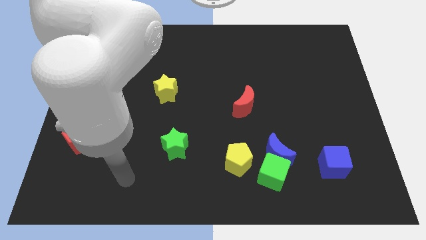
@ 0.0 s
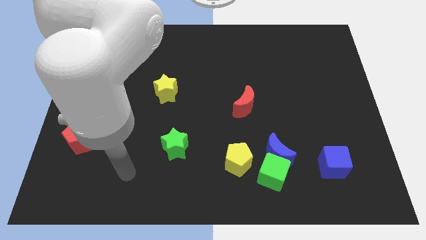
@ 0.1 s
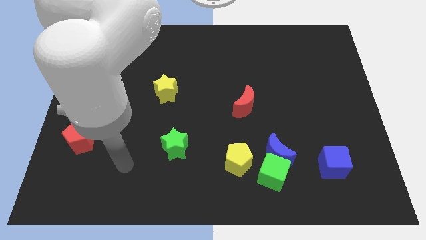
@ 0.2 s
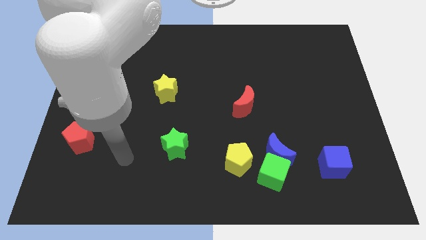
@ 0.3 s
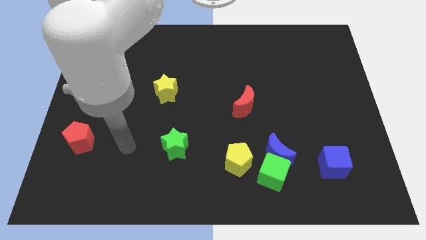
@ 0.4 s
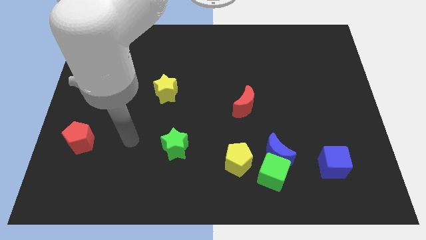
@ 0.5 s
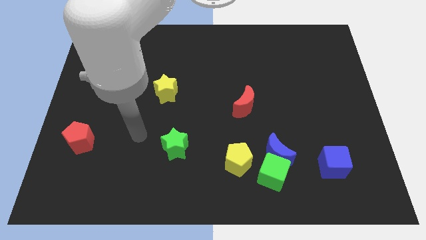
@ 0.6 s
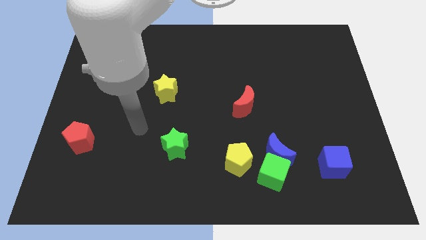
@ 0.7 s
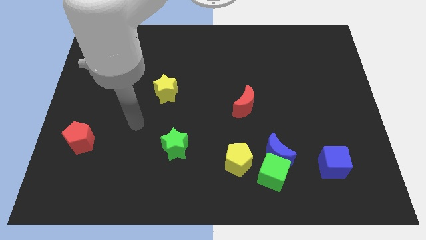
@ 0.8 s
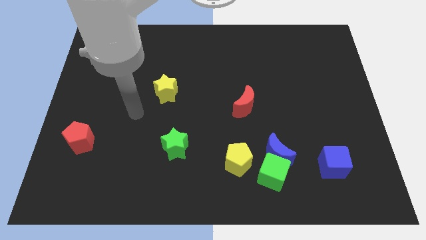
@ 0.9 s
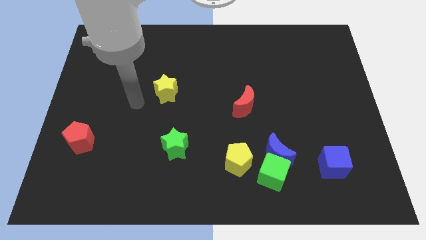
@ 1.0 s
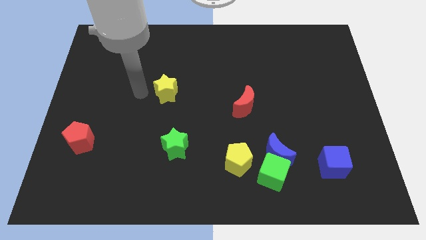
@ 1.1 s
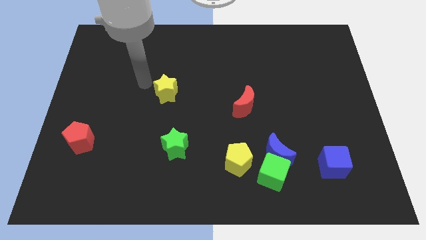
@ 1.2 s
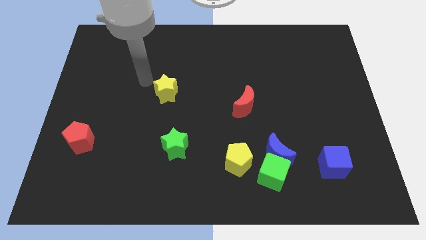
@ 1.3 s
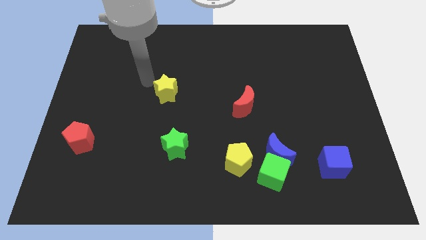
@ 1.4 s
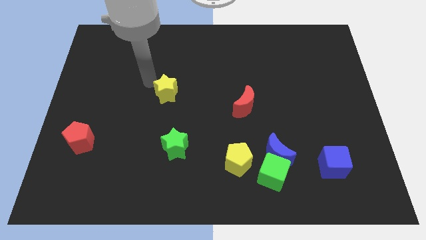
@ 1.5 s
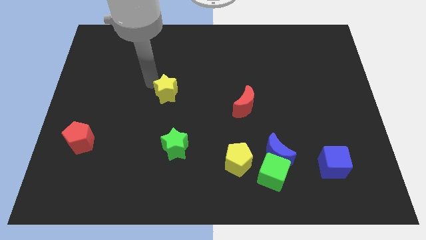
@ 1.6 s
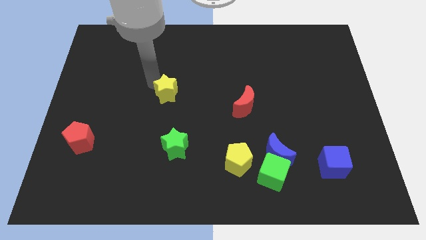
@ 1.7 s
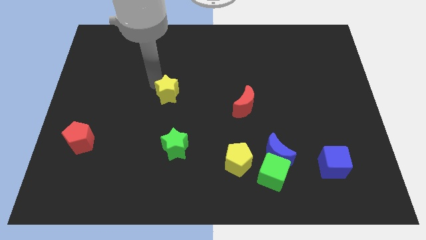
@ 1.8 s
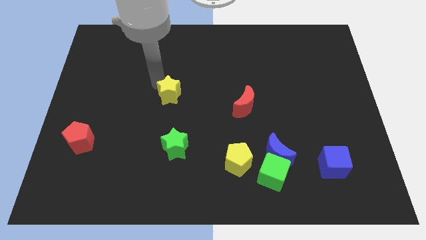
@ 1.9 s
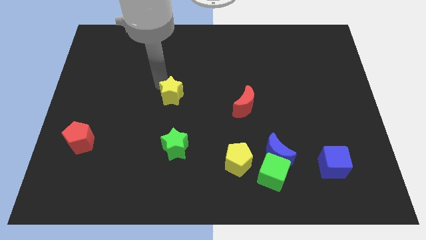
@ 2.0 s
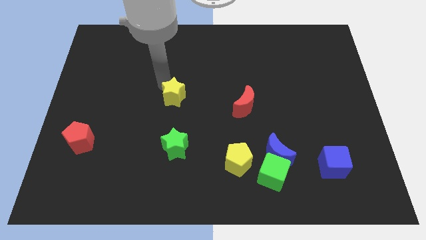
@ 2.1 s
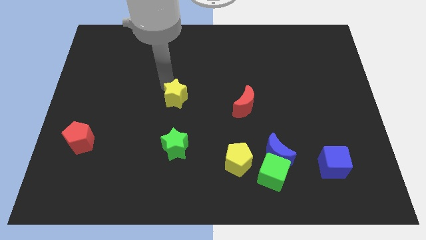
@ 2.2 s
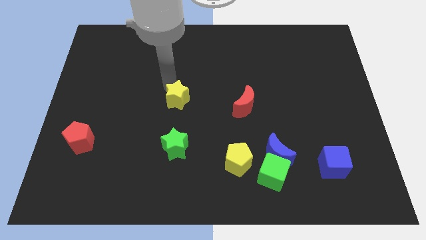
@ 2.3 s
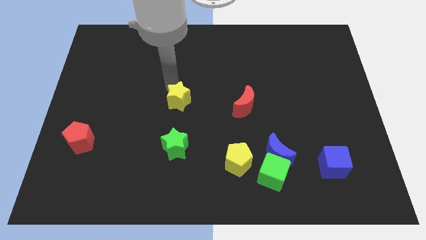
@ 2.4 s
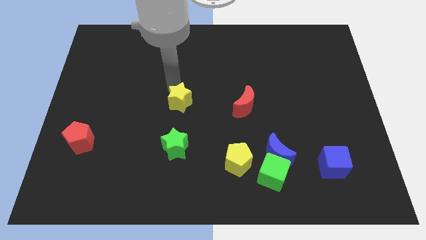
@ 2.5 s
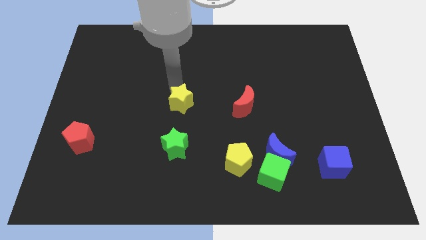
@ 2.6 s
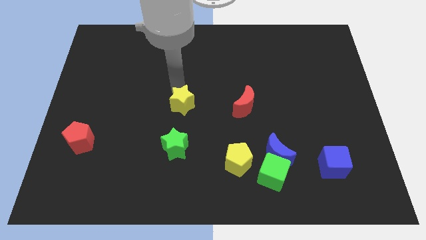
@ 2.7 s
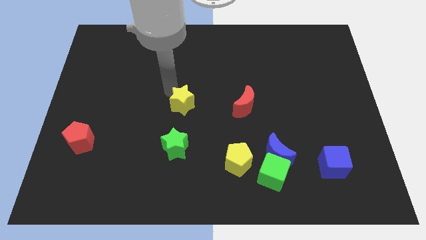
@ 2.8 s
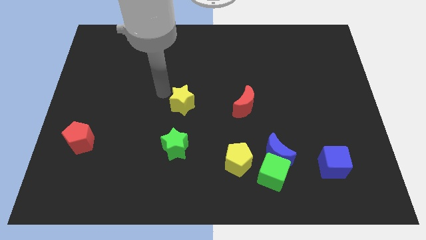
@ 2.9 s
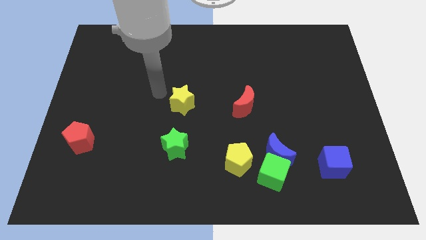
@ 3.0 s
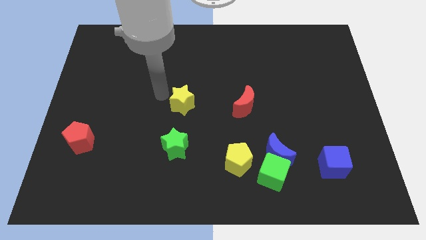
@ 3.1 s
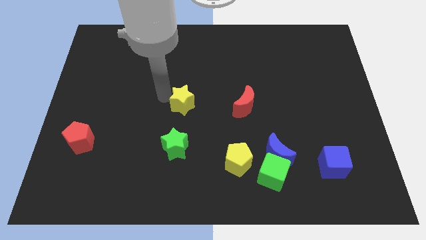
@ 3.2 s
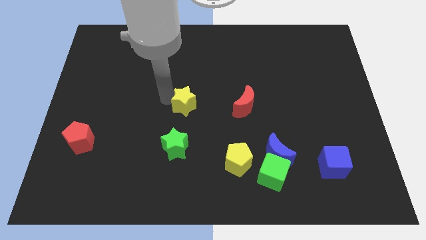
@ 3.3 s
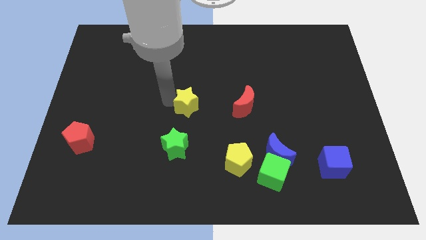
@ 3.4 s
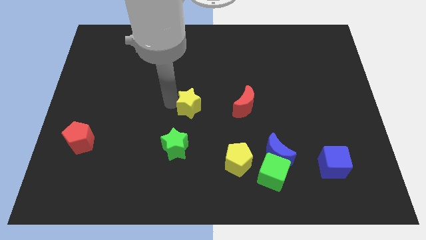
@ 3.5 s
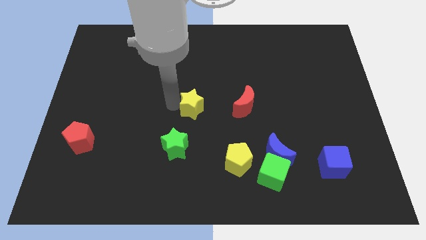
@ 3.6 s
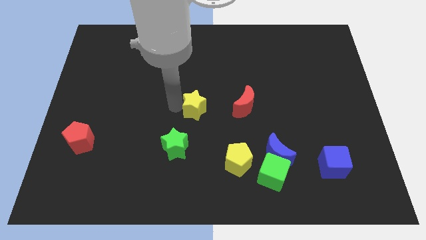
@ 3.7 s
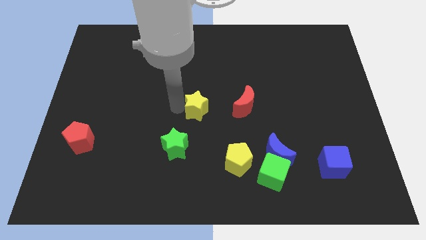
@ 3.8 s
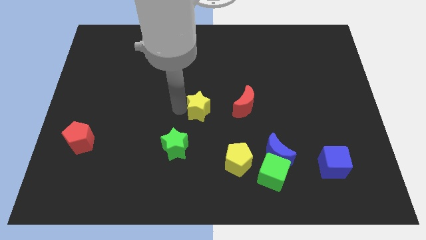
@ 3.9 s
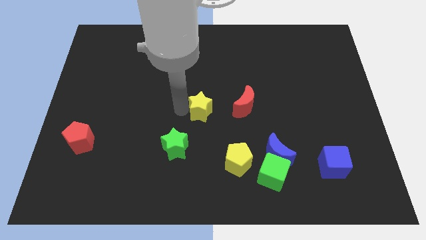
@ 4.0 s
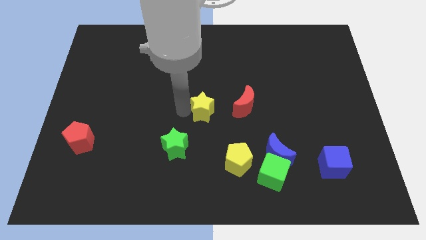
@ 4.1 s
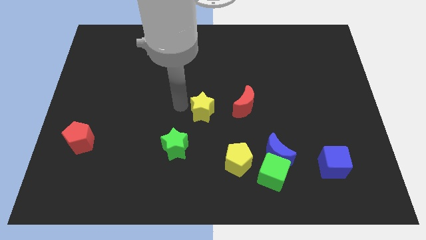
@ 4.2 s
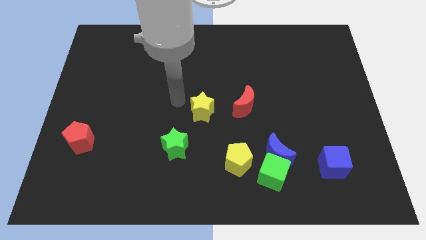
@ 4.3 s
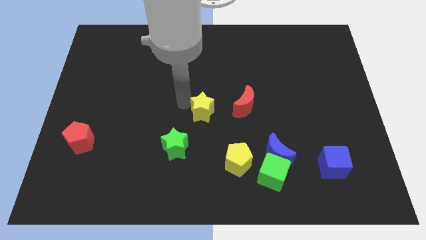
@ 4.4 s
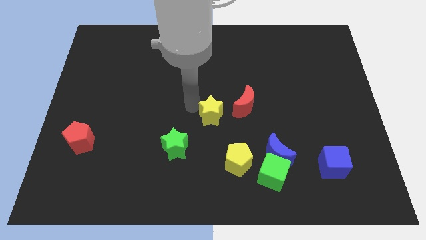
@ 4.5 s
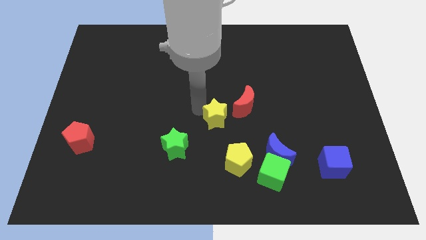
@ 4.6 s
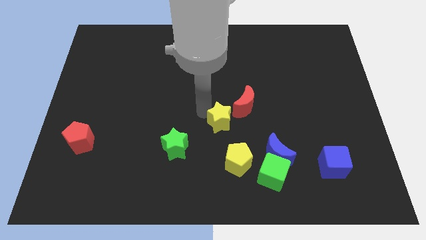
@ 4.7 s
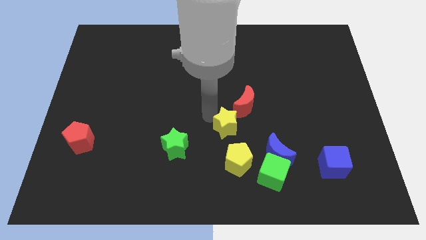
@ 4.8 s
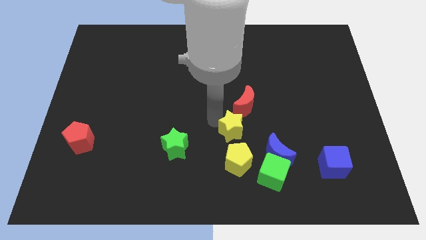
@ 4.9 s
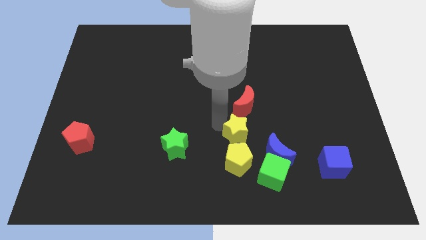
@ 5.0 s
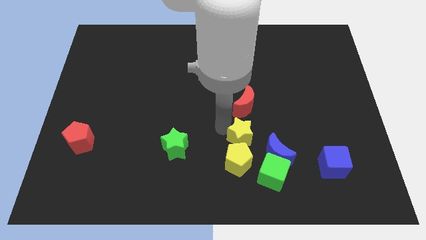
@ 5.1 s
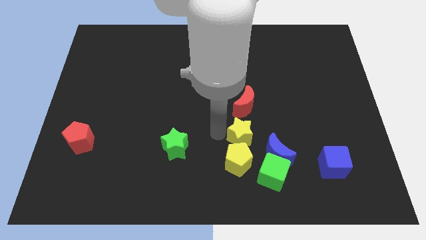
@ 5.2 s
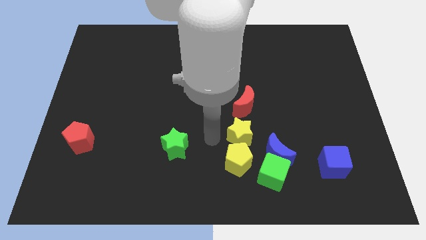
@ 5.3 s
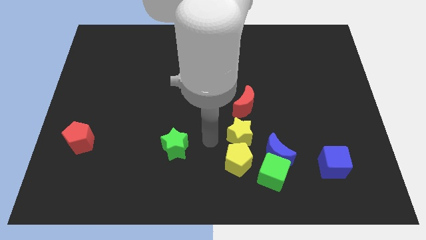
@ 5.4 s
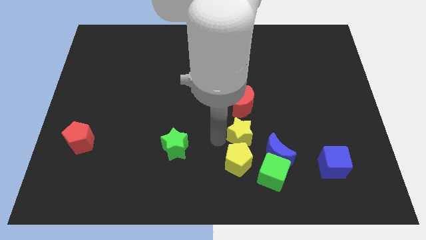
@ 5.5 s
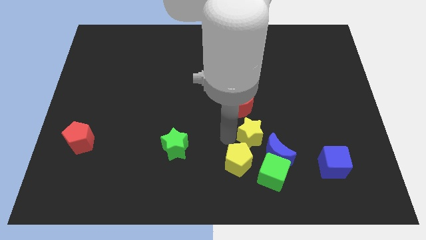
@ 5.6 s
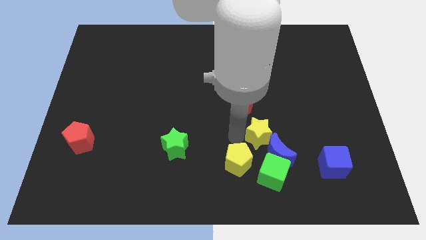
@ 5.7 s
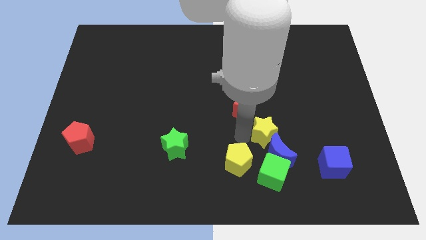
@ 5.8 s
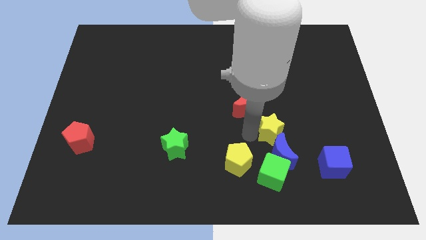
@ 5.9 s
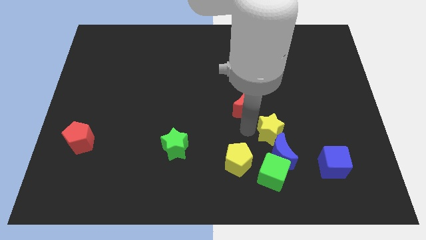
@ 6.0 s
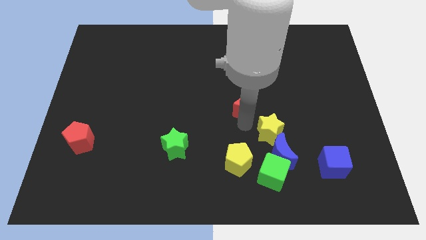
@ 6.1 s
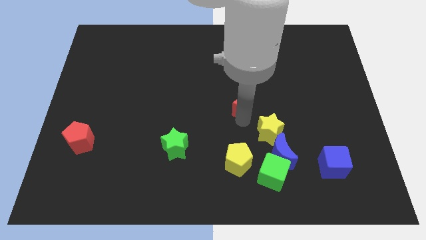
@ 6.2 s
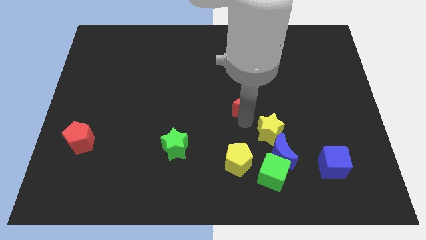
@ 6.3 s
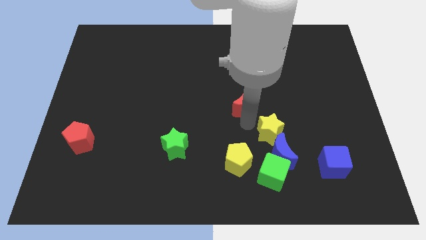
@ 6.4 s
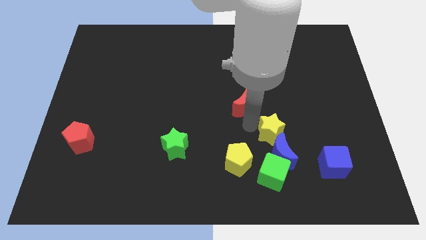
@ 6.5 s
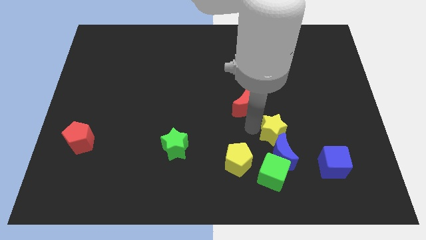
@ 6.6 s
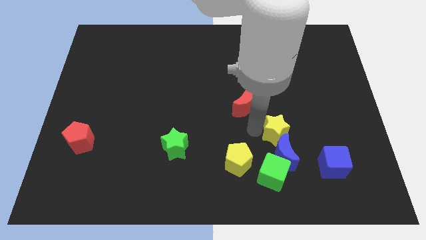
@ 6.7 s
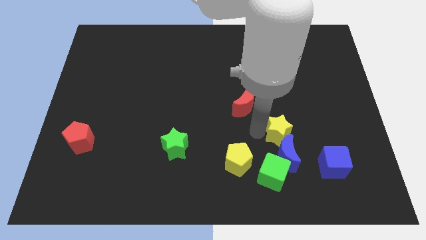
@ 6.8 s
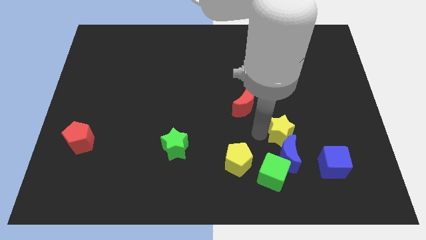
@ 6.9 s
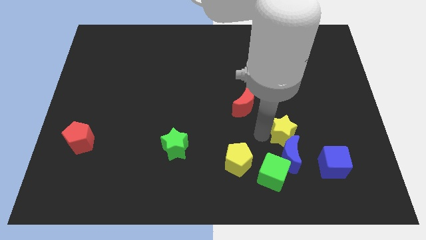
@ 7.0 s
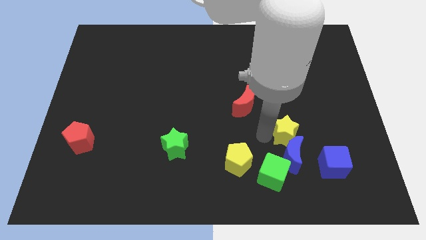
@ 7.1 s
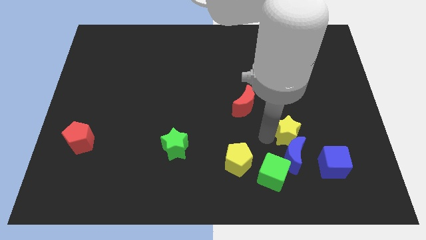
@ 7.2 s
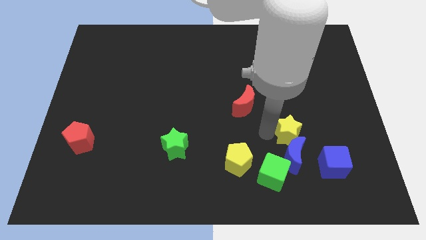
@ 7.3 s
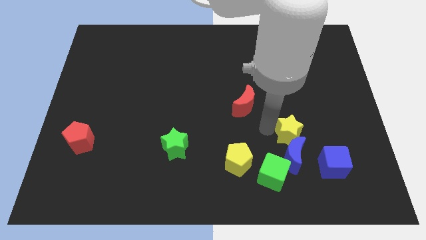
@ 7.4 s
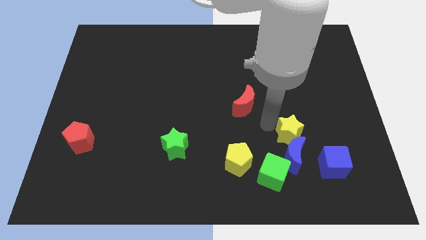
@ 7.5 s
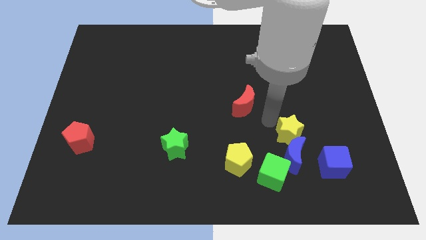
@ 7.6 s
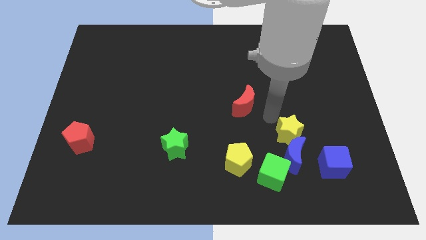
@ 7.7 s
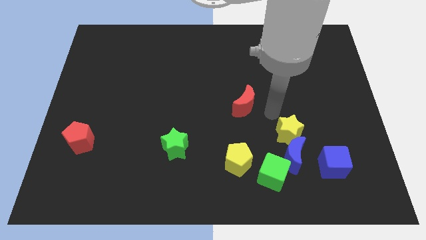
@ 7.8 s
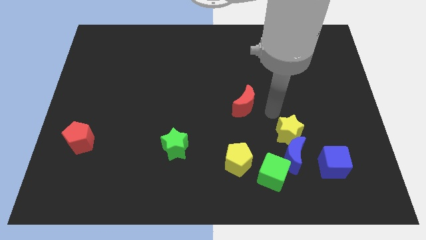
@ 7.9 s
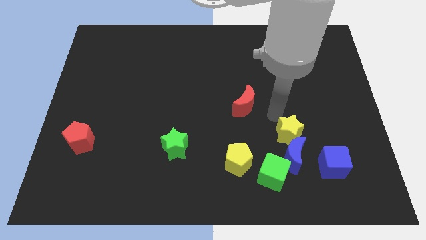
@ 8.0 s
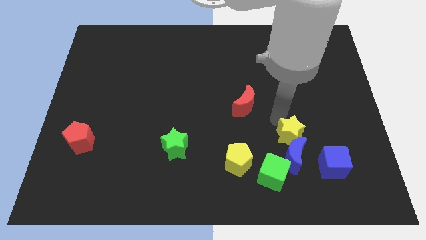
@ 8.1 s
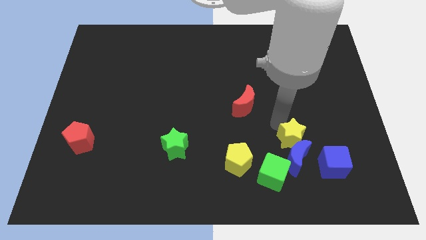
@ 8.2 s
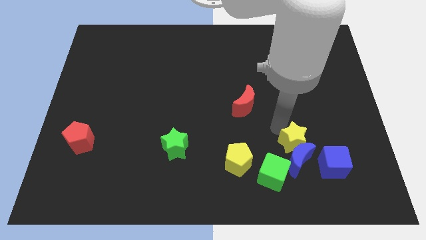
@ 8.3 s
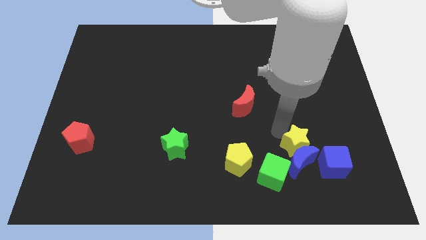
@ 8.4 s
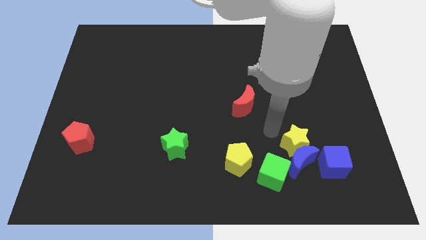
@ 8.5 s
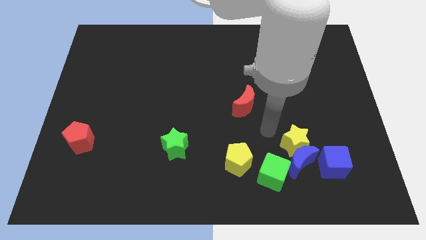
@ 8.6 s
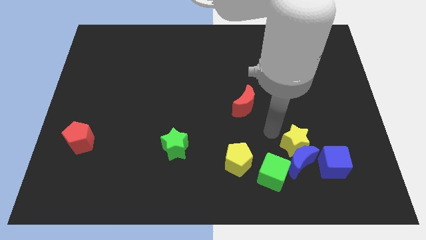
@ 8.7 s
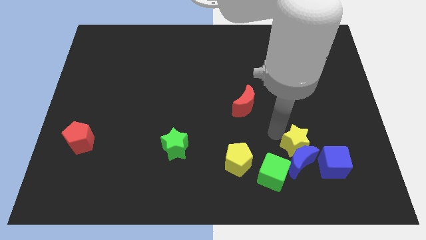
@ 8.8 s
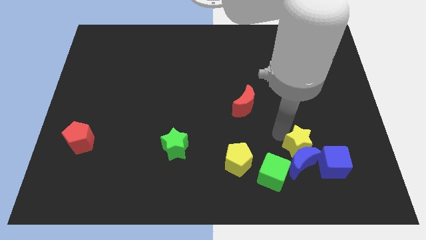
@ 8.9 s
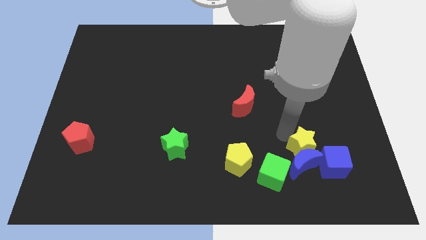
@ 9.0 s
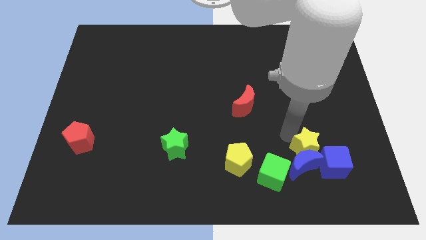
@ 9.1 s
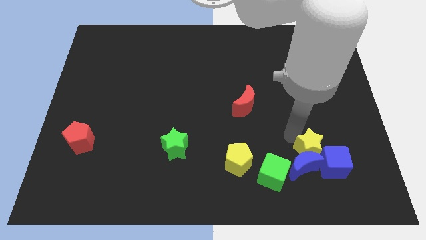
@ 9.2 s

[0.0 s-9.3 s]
push the yellow star to the blue cube
